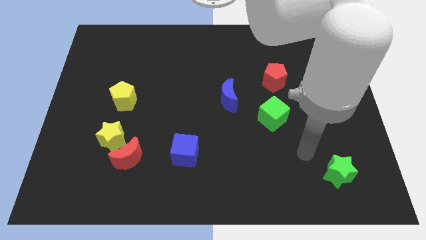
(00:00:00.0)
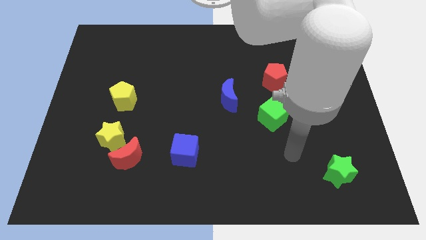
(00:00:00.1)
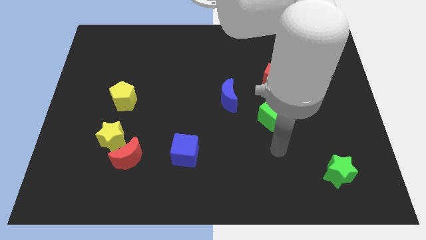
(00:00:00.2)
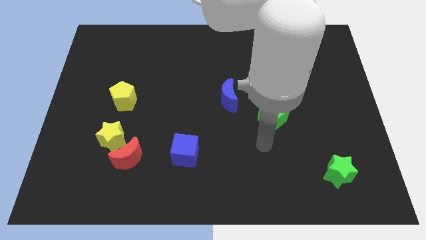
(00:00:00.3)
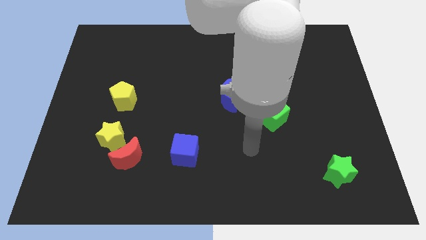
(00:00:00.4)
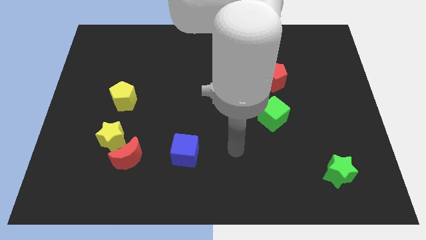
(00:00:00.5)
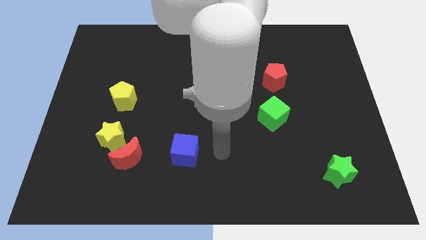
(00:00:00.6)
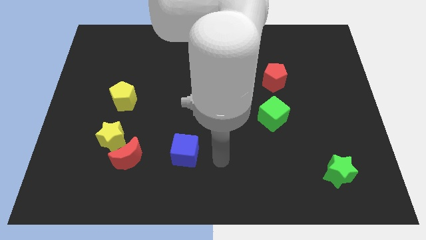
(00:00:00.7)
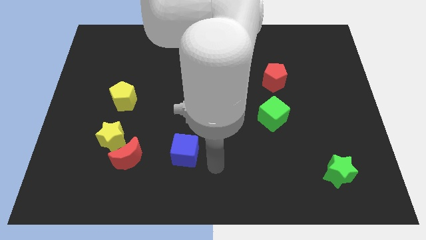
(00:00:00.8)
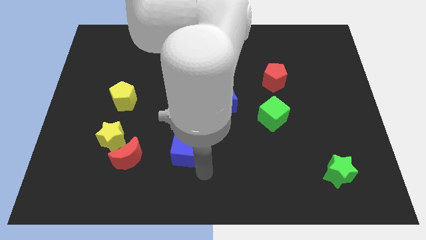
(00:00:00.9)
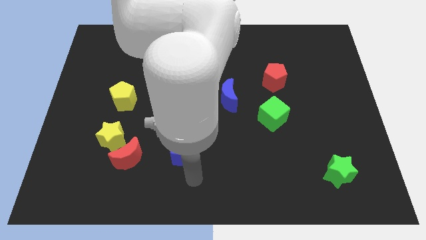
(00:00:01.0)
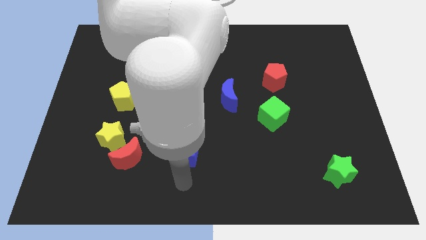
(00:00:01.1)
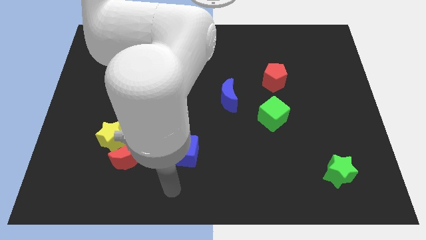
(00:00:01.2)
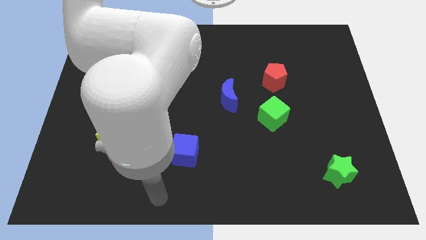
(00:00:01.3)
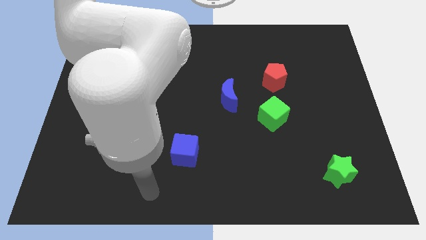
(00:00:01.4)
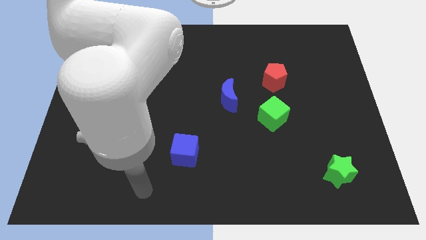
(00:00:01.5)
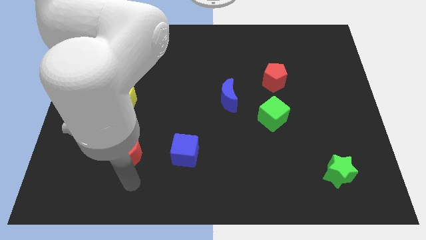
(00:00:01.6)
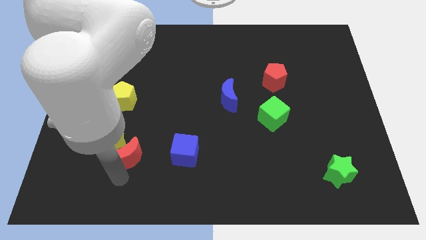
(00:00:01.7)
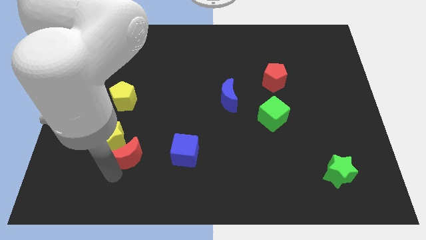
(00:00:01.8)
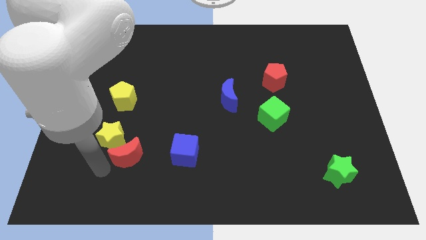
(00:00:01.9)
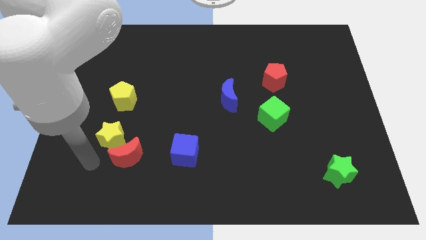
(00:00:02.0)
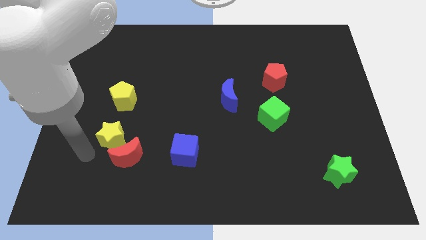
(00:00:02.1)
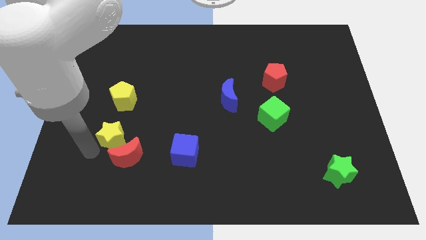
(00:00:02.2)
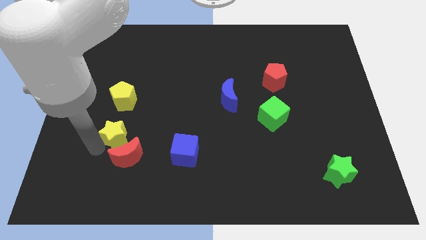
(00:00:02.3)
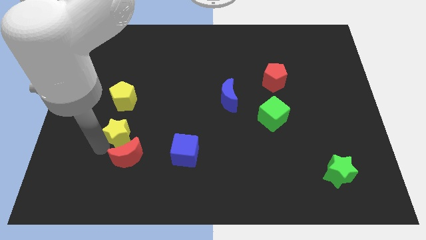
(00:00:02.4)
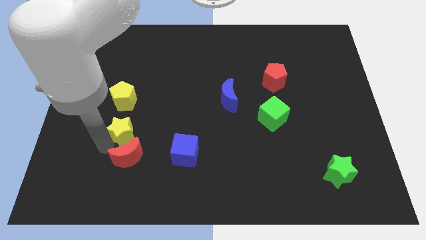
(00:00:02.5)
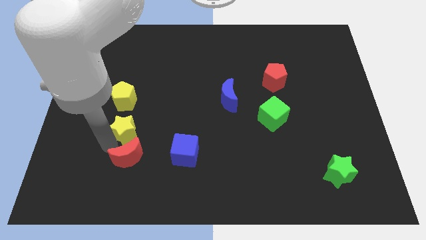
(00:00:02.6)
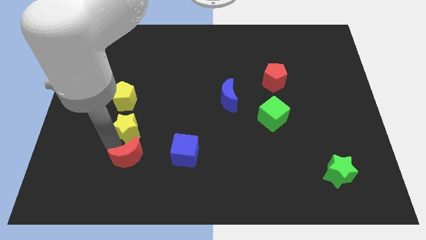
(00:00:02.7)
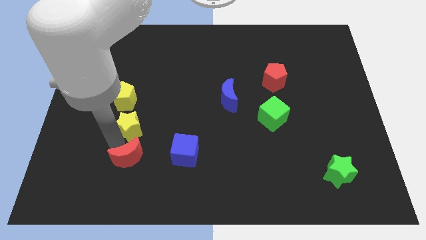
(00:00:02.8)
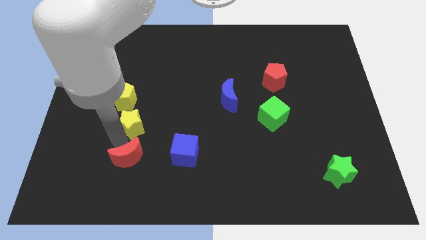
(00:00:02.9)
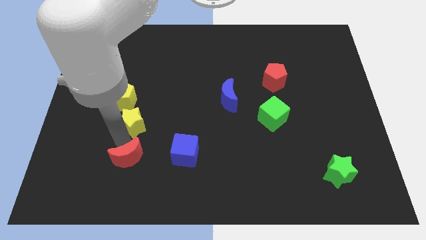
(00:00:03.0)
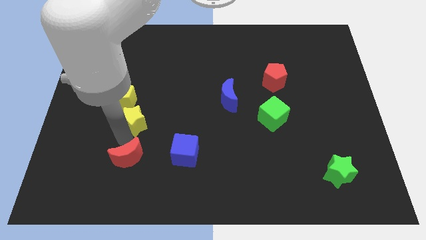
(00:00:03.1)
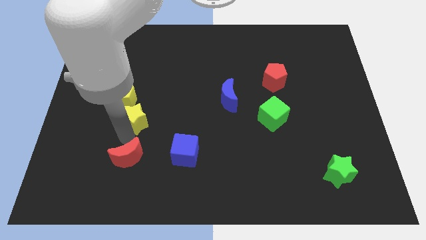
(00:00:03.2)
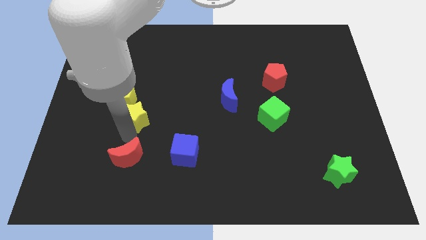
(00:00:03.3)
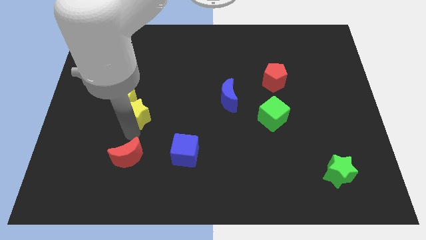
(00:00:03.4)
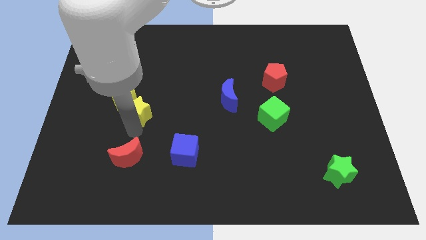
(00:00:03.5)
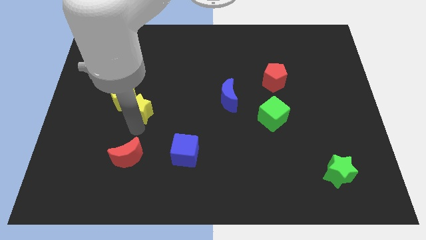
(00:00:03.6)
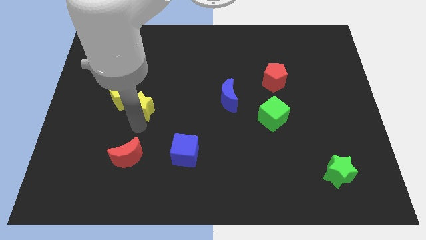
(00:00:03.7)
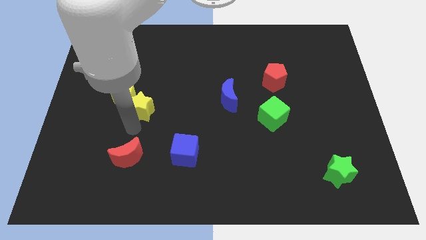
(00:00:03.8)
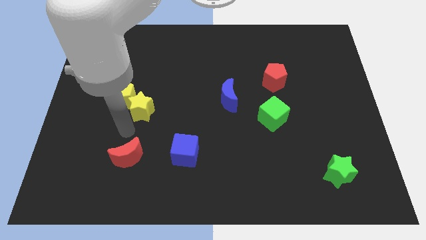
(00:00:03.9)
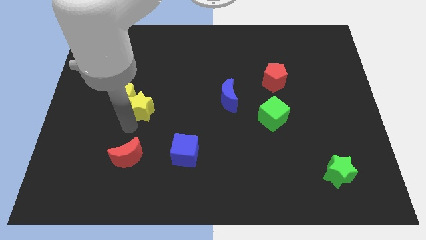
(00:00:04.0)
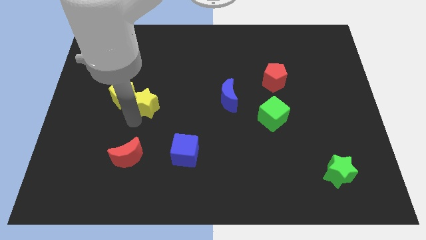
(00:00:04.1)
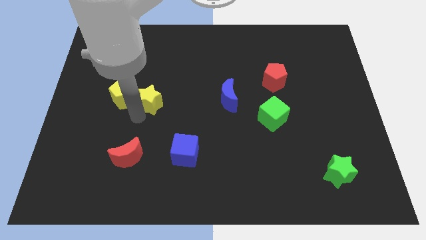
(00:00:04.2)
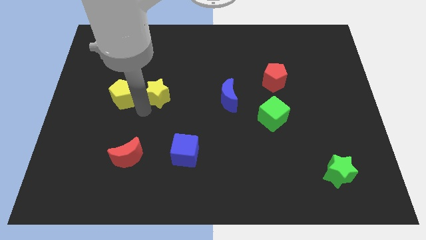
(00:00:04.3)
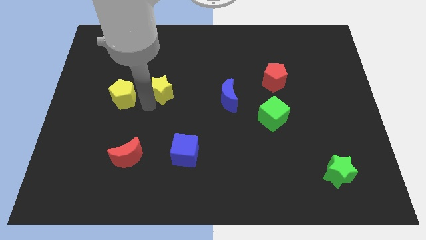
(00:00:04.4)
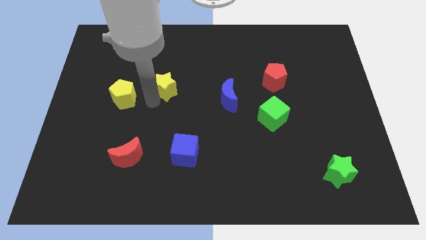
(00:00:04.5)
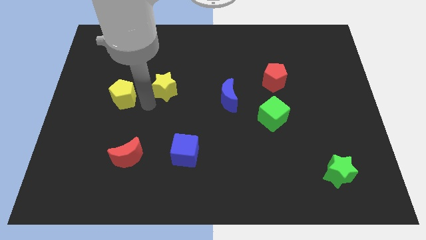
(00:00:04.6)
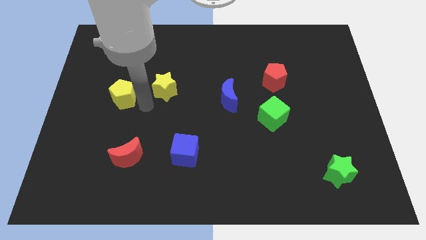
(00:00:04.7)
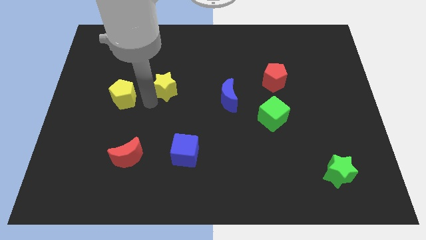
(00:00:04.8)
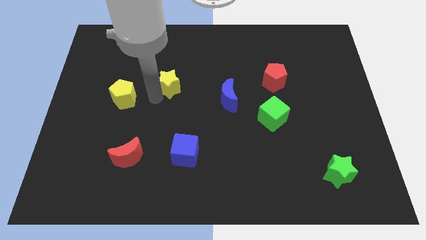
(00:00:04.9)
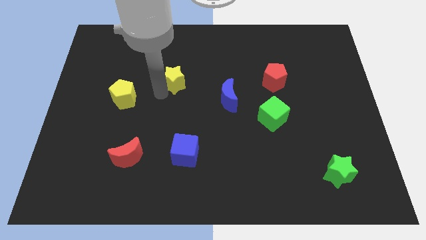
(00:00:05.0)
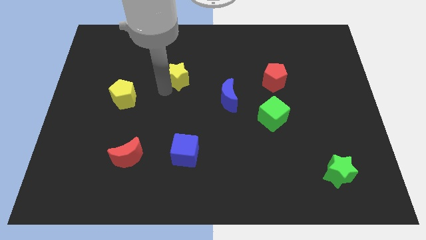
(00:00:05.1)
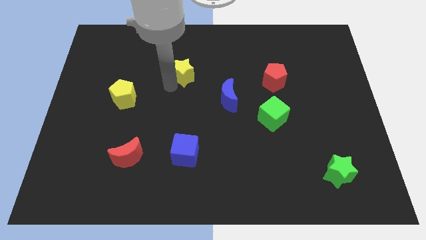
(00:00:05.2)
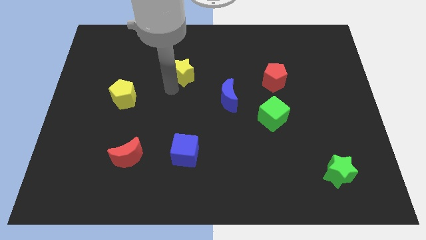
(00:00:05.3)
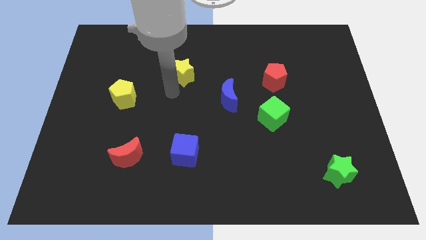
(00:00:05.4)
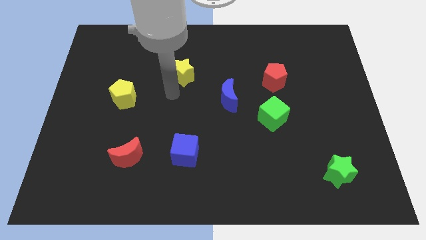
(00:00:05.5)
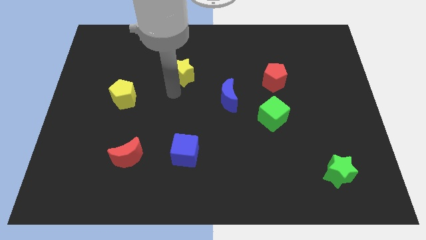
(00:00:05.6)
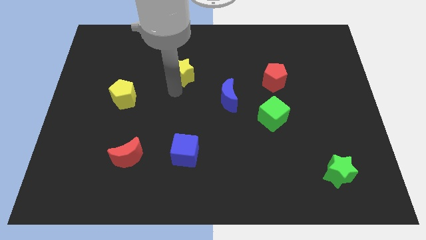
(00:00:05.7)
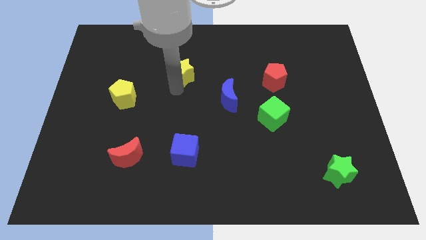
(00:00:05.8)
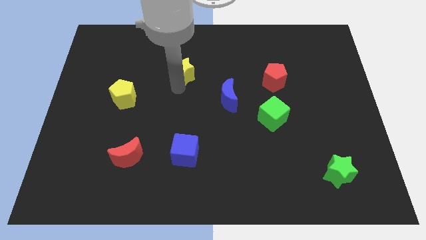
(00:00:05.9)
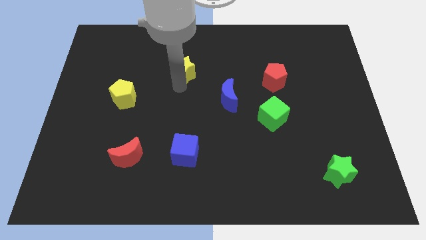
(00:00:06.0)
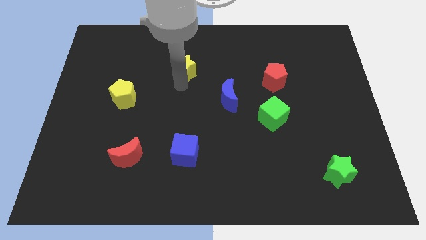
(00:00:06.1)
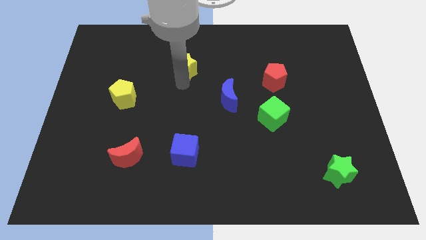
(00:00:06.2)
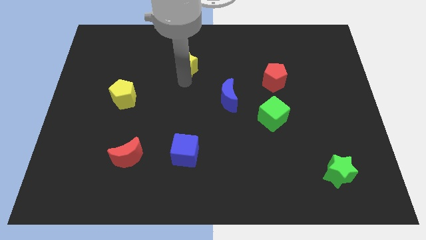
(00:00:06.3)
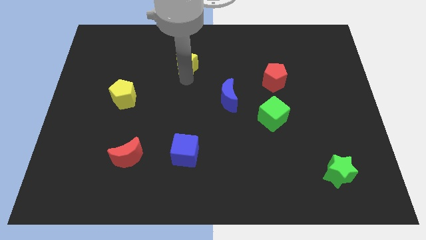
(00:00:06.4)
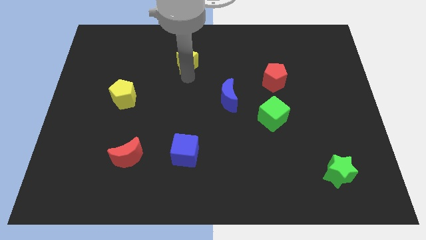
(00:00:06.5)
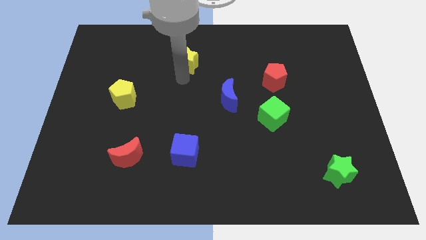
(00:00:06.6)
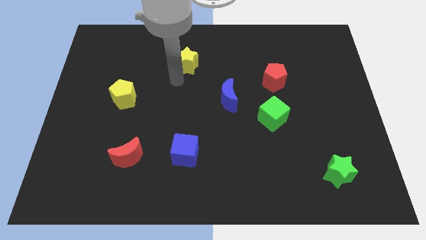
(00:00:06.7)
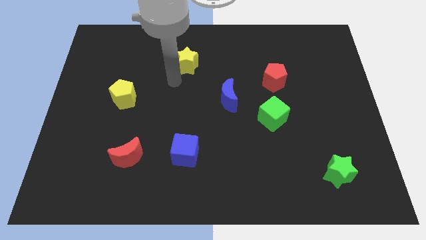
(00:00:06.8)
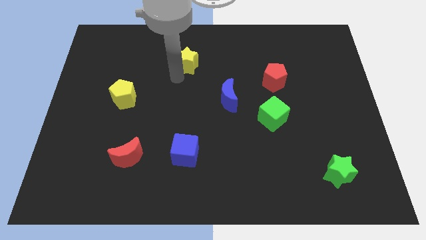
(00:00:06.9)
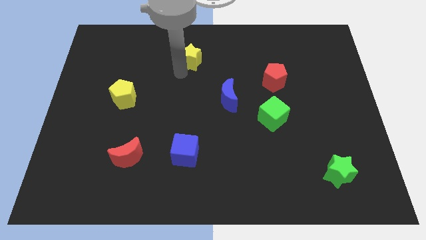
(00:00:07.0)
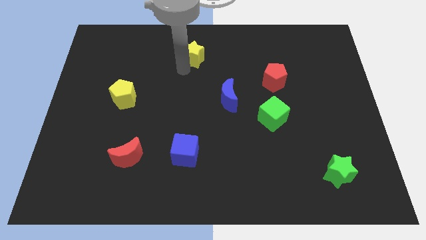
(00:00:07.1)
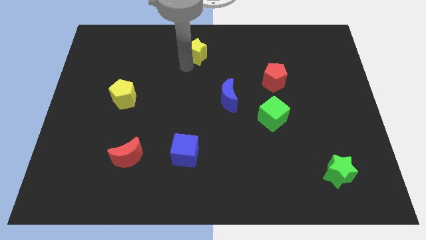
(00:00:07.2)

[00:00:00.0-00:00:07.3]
push the yellow star to the towards your base

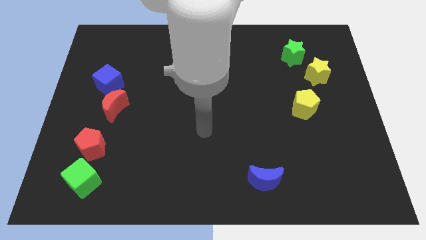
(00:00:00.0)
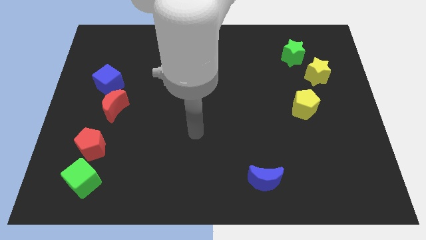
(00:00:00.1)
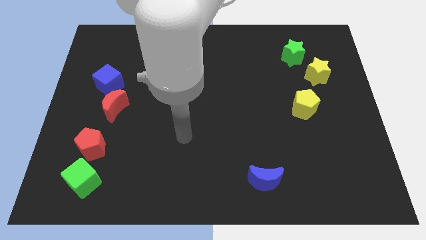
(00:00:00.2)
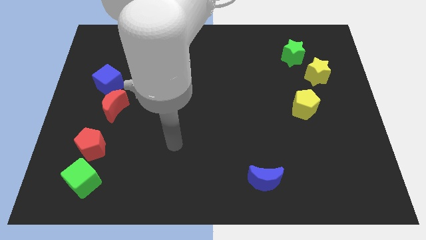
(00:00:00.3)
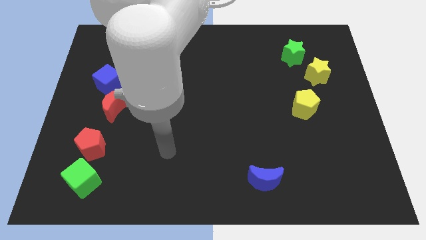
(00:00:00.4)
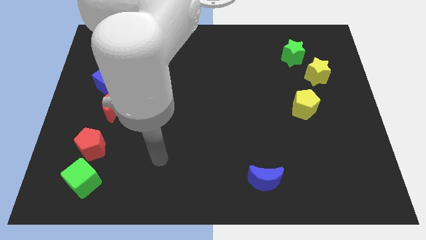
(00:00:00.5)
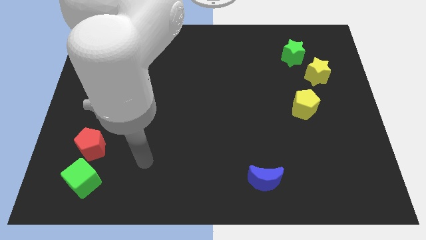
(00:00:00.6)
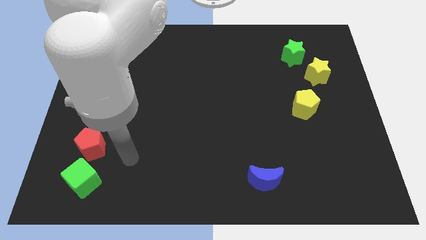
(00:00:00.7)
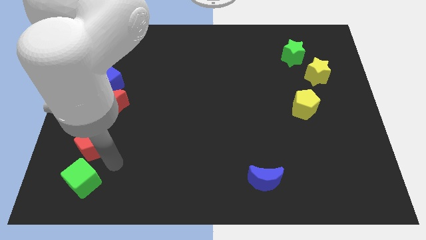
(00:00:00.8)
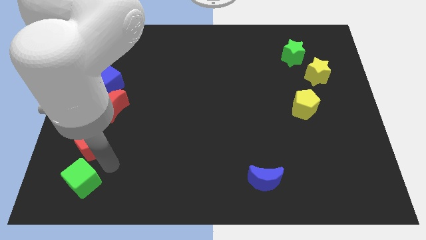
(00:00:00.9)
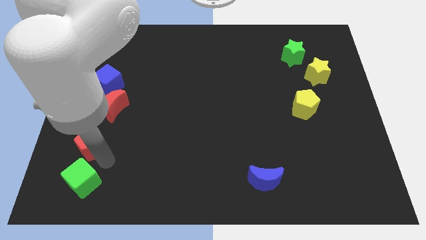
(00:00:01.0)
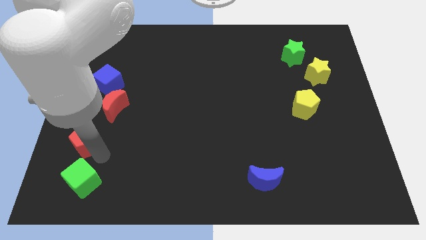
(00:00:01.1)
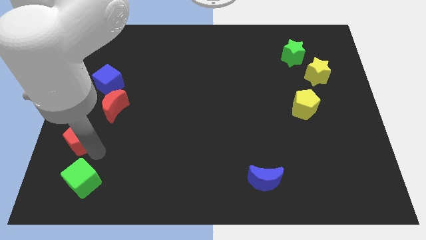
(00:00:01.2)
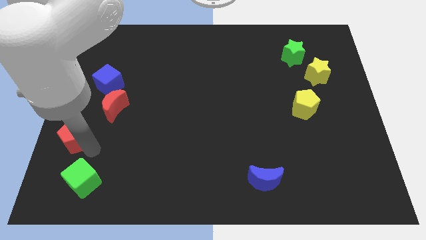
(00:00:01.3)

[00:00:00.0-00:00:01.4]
move the red pentagon to the left side
